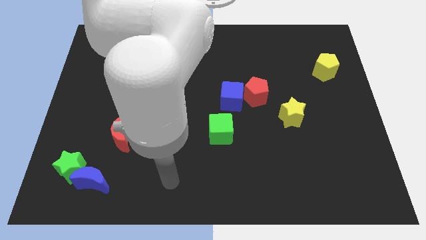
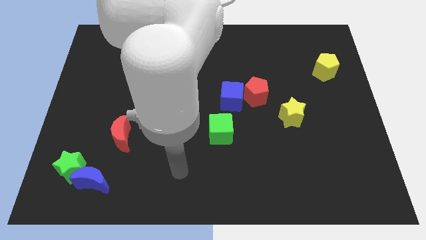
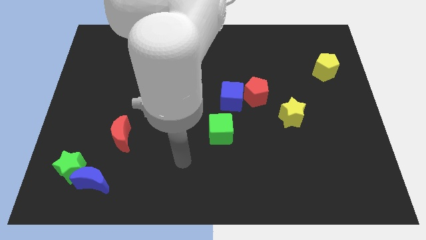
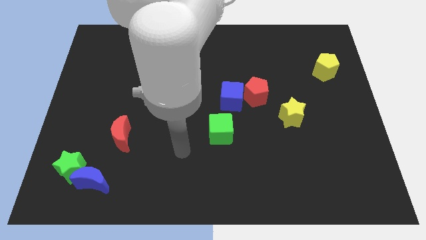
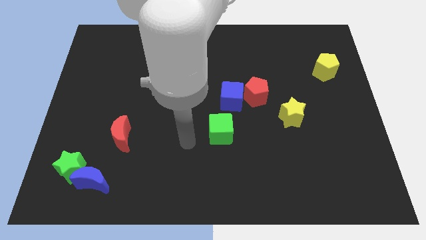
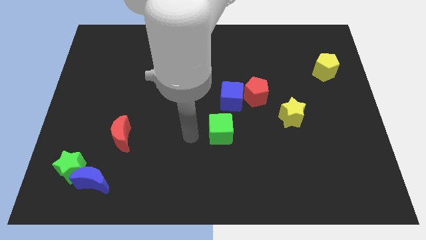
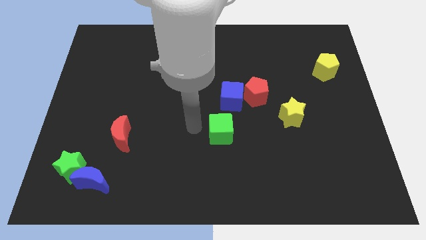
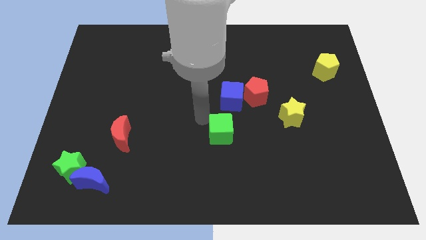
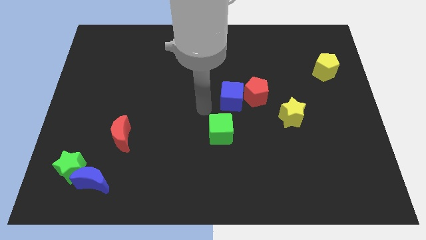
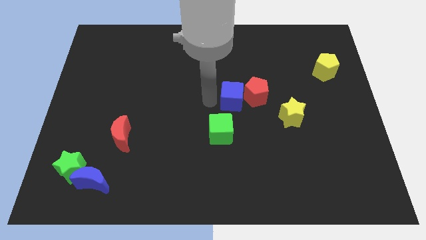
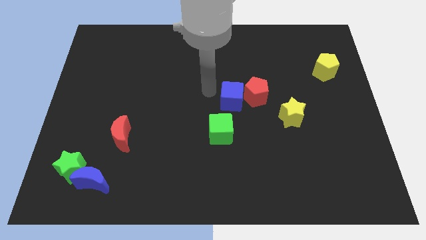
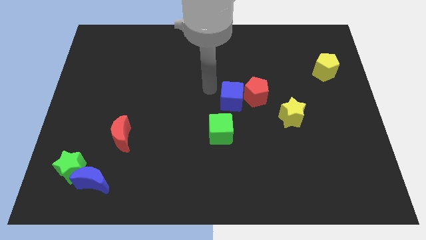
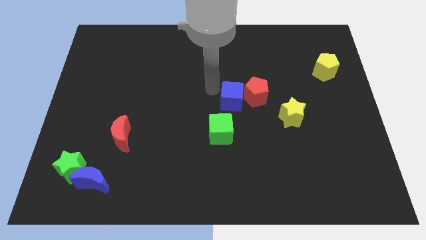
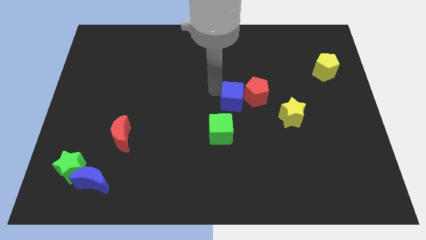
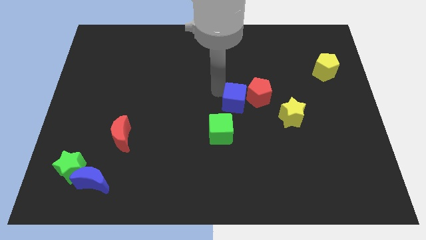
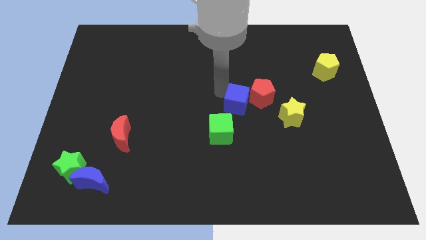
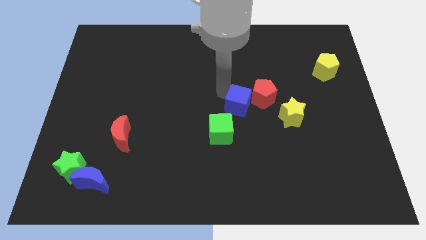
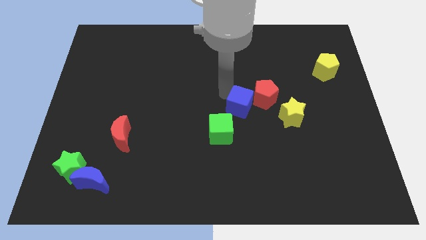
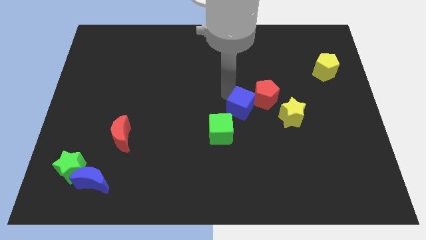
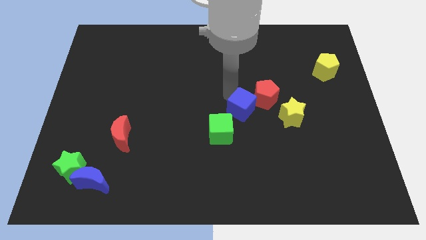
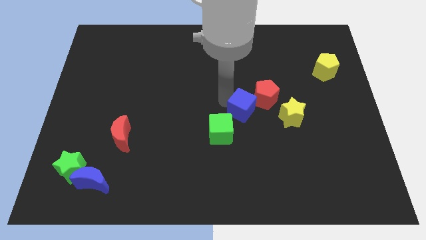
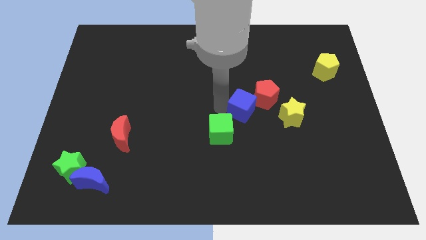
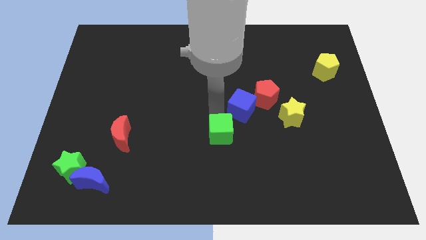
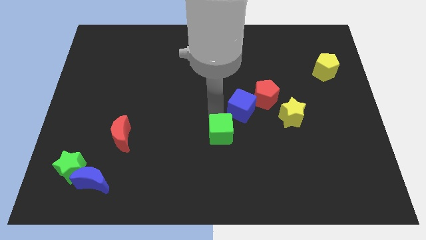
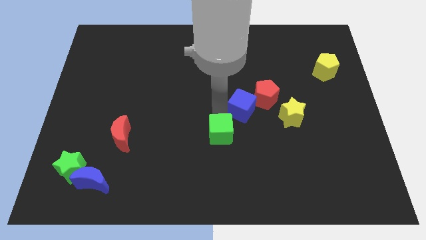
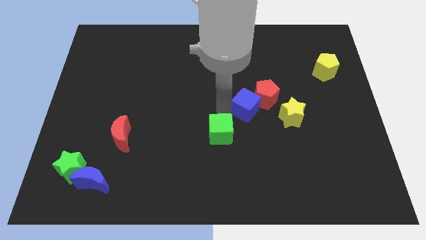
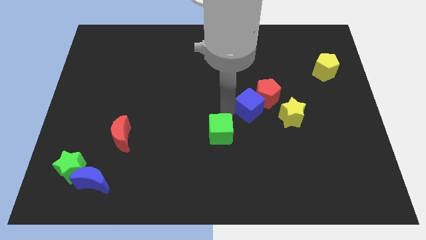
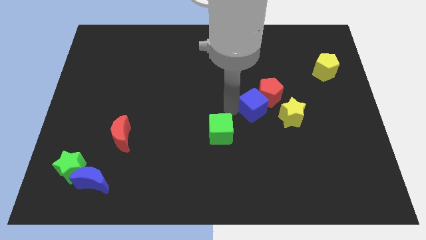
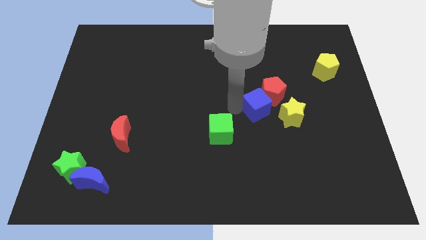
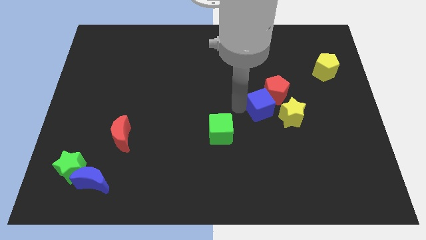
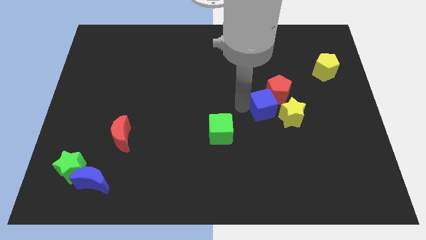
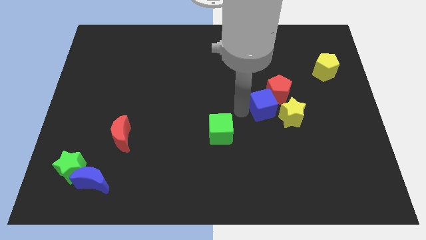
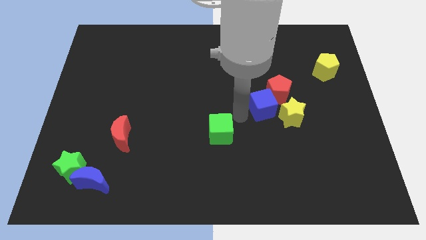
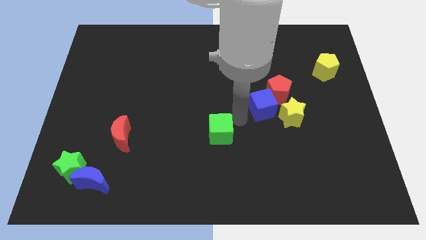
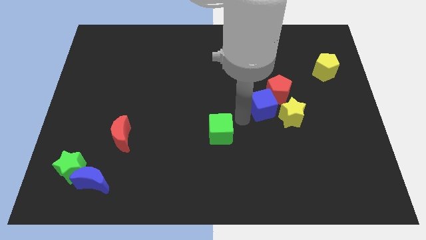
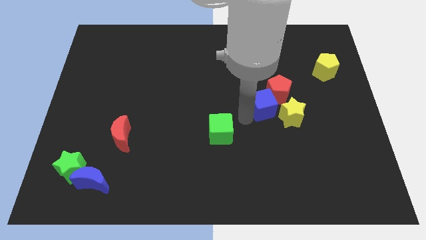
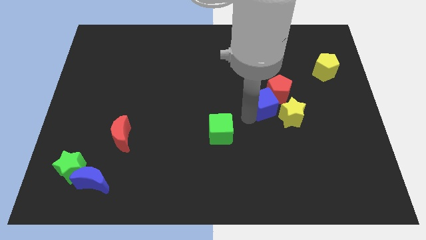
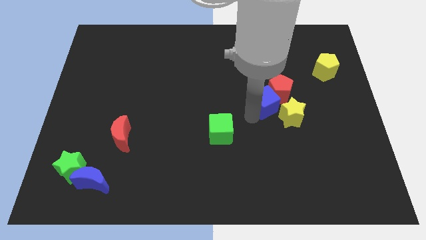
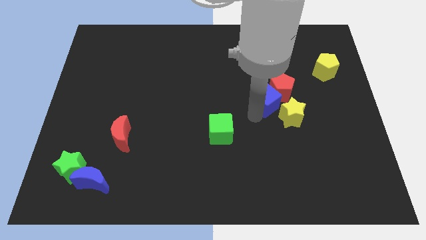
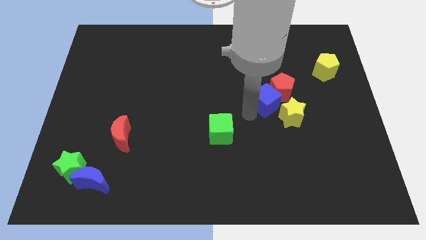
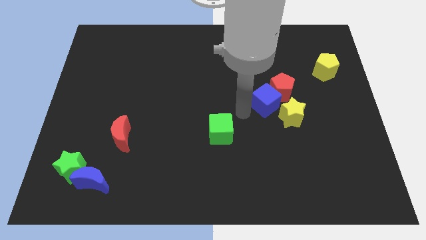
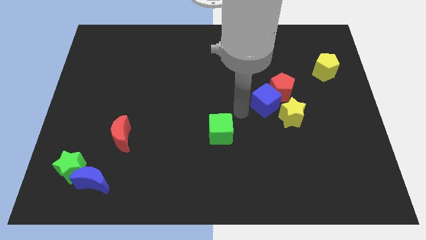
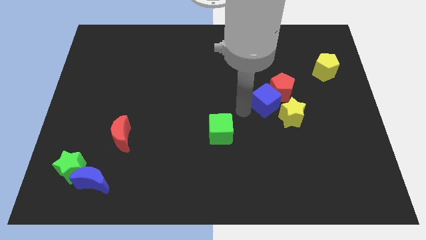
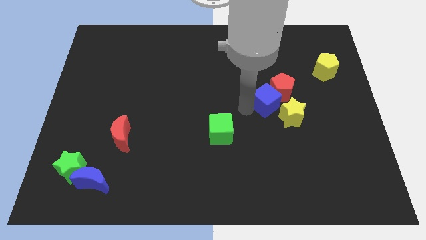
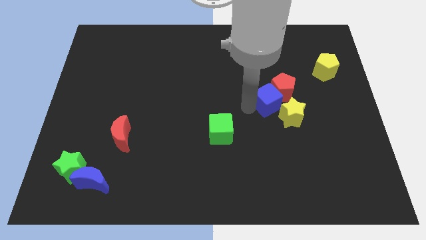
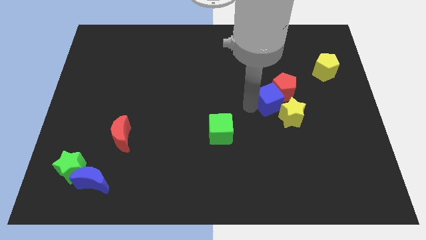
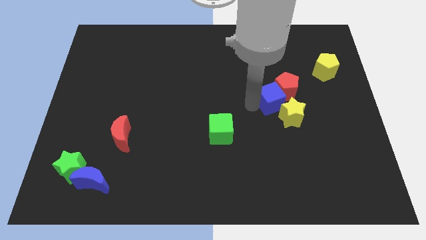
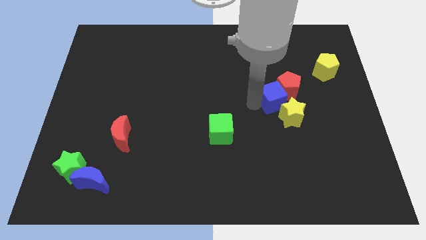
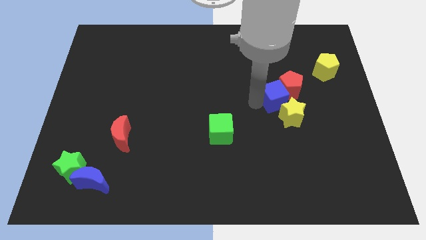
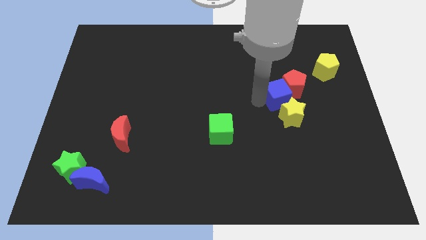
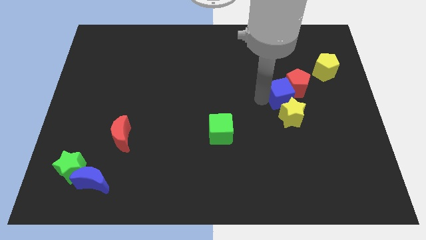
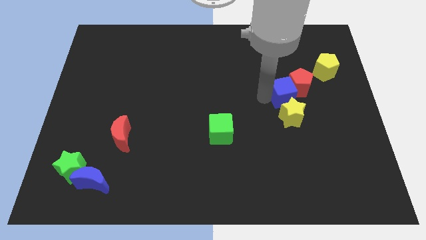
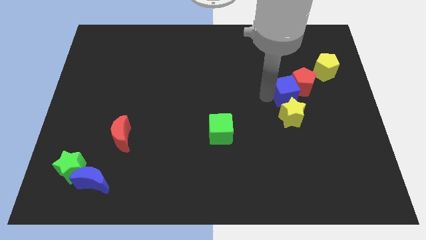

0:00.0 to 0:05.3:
slide the blue cube diagonally up and to the right of the yellow star

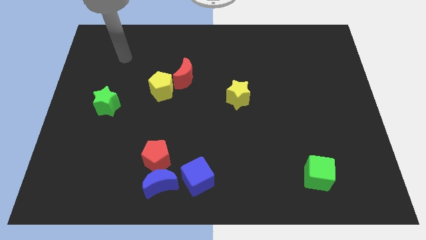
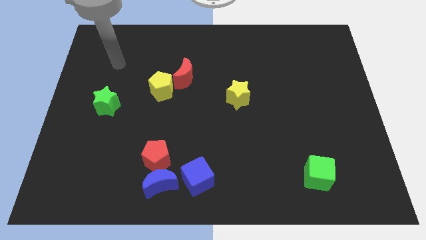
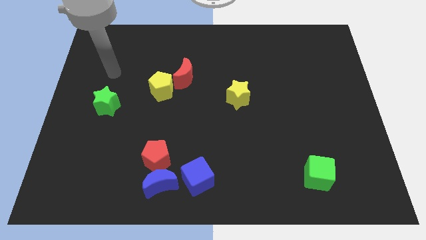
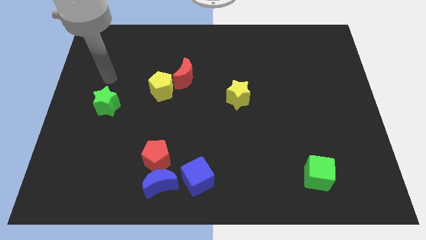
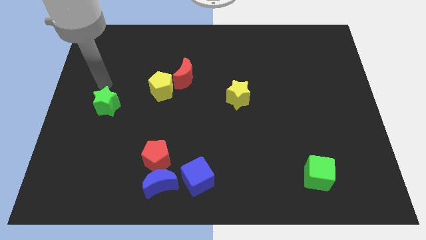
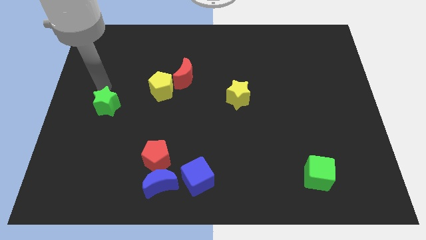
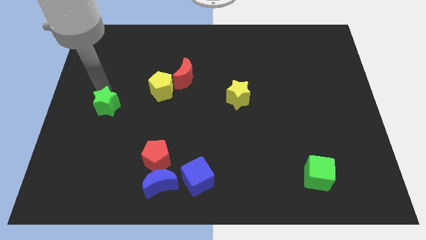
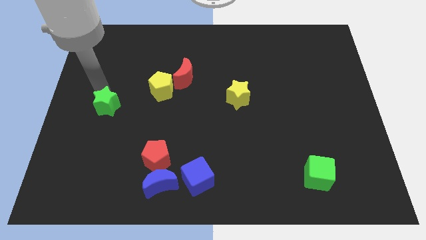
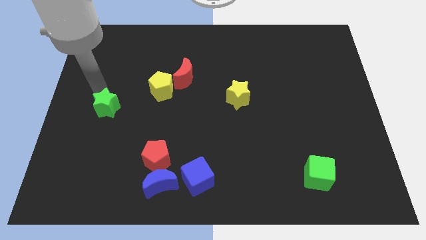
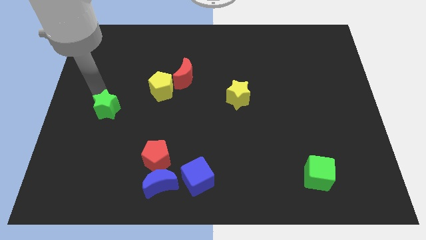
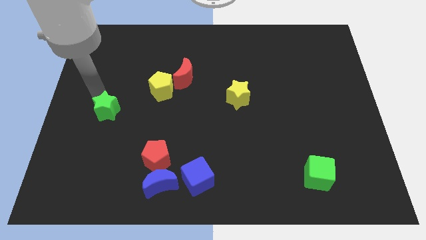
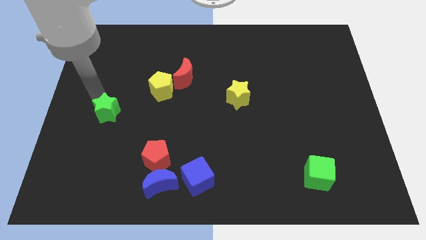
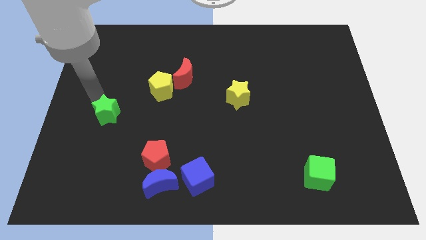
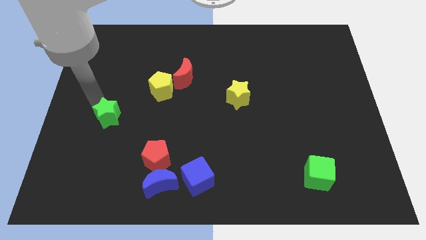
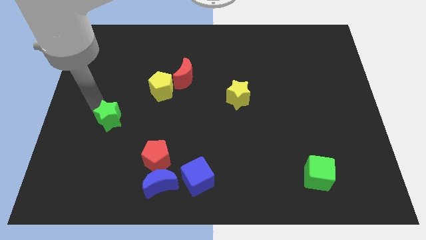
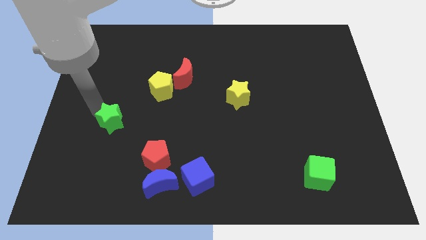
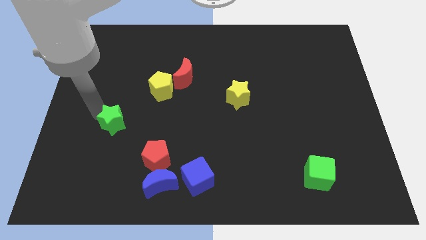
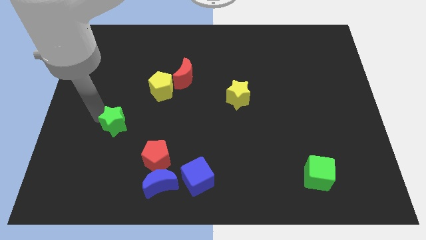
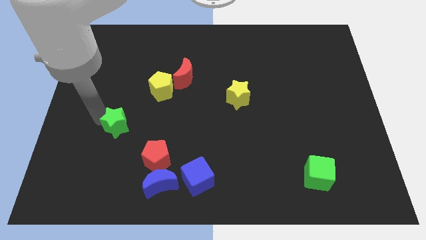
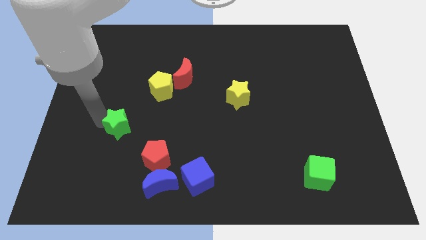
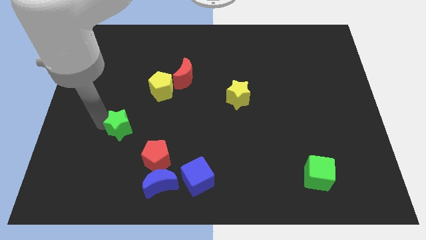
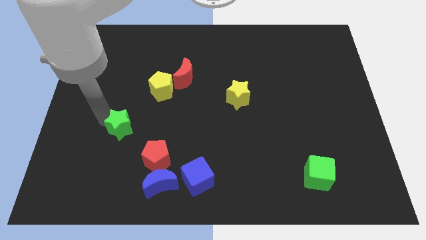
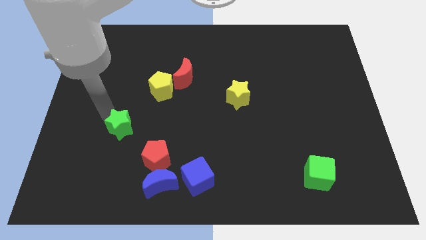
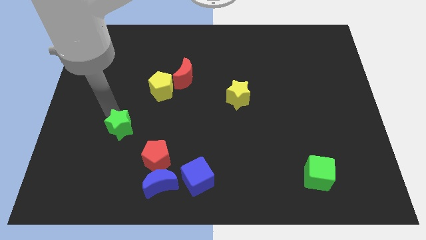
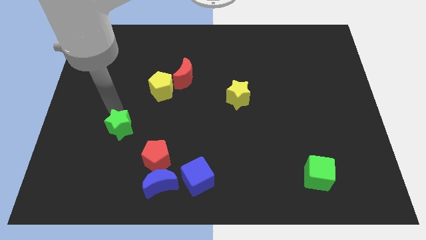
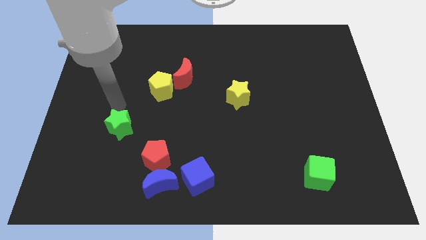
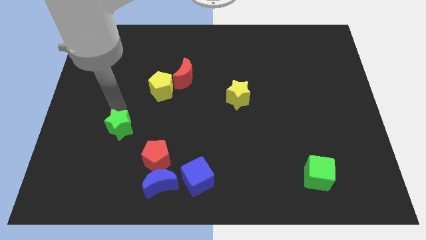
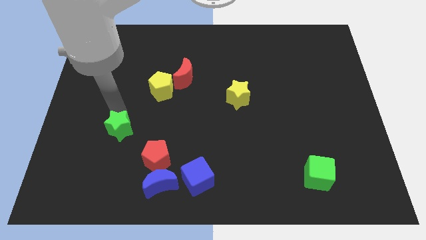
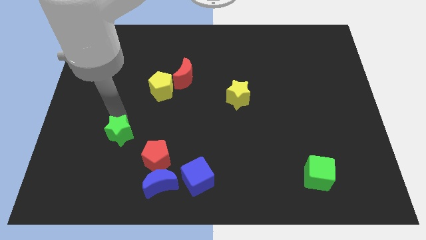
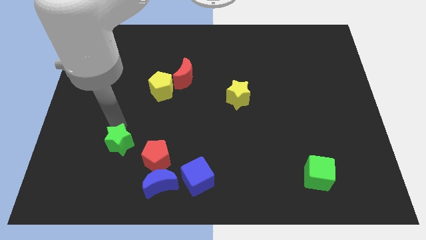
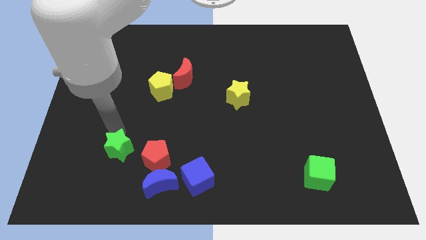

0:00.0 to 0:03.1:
slide the green star to the top left side of the blue moon
